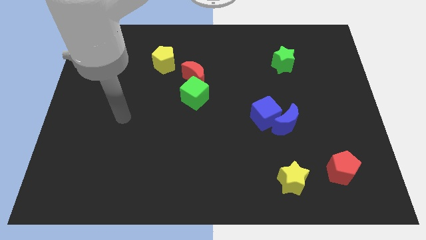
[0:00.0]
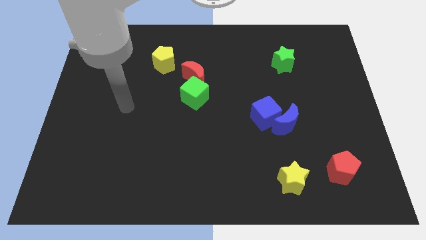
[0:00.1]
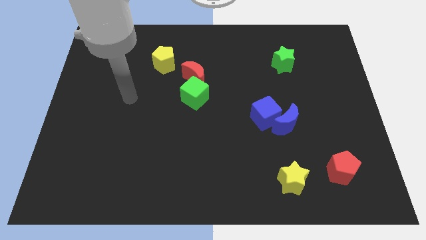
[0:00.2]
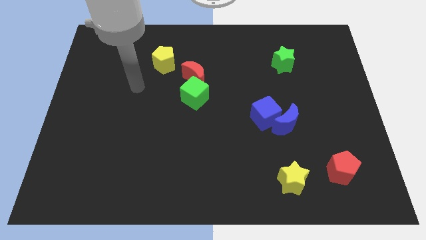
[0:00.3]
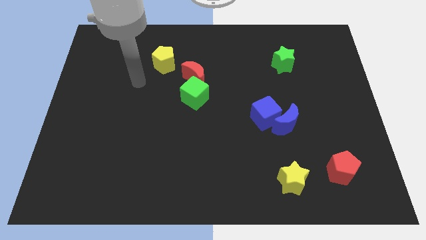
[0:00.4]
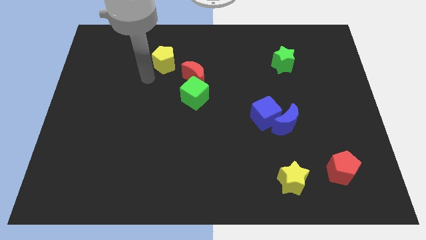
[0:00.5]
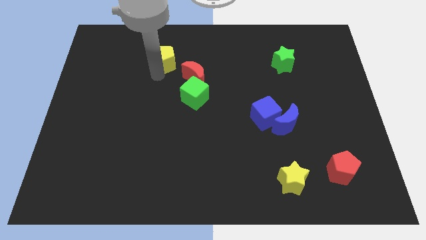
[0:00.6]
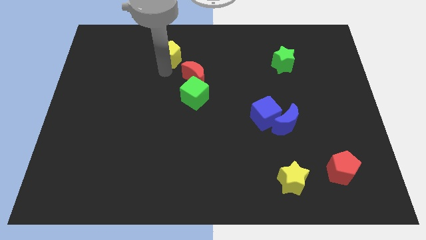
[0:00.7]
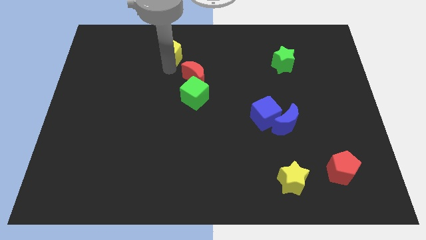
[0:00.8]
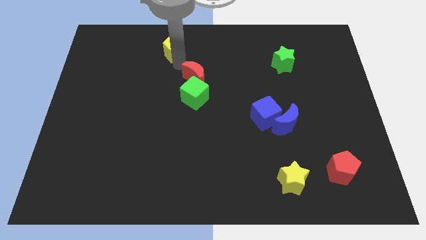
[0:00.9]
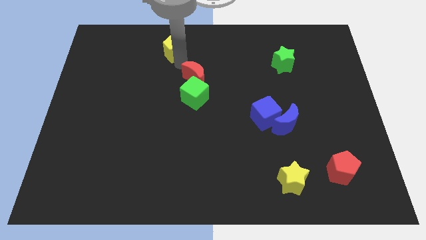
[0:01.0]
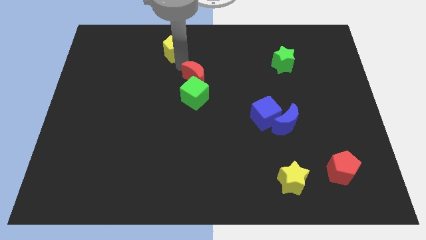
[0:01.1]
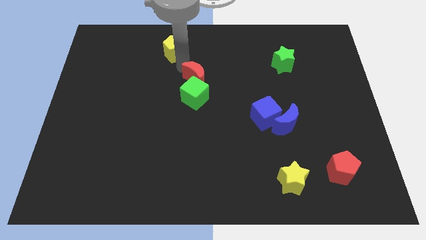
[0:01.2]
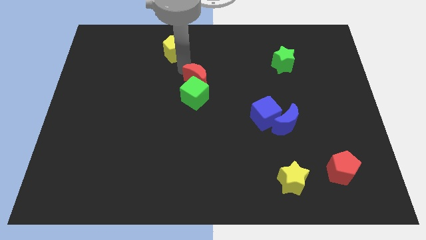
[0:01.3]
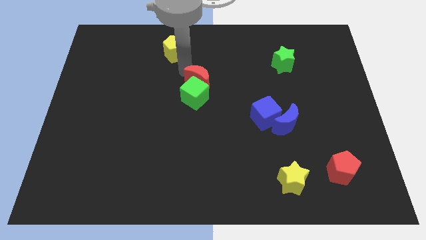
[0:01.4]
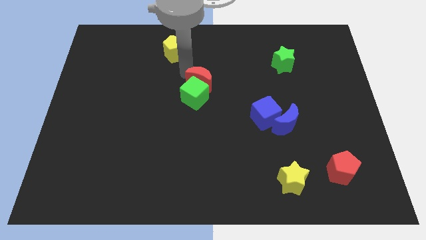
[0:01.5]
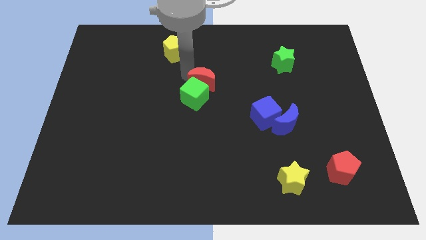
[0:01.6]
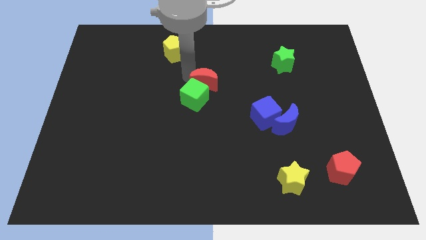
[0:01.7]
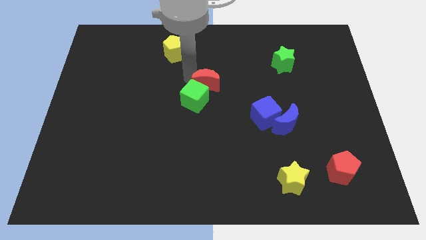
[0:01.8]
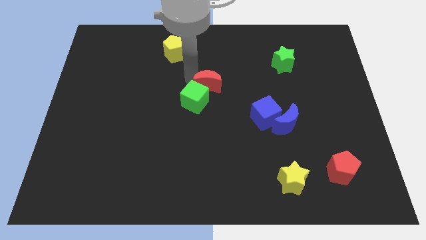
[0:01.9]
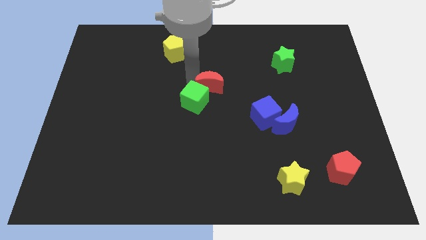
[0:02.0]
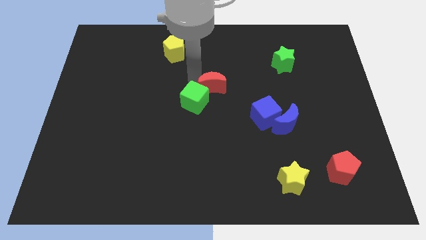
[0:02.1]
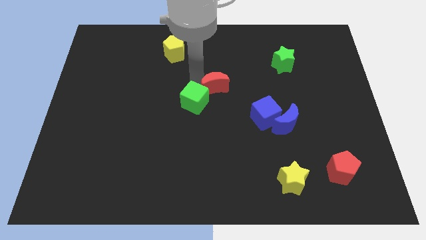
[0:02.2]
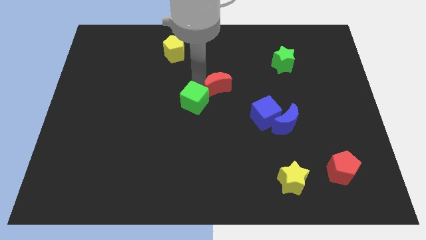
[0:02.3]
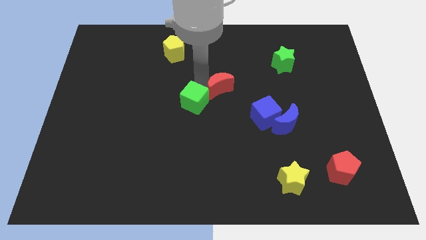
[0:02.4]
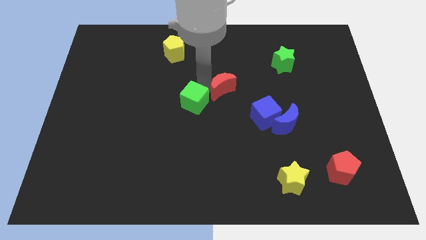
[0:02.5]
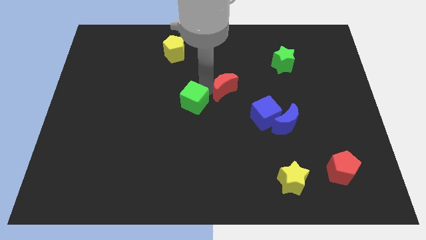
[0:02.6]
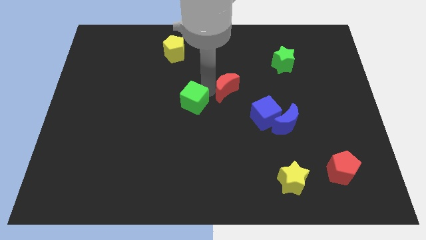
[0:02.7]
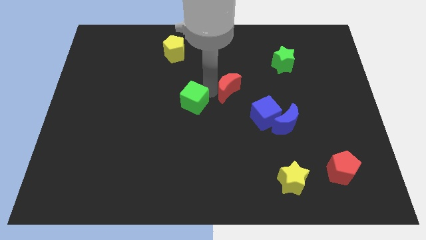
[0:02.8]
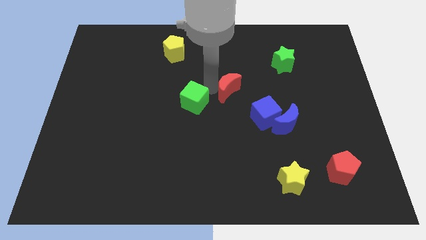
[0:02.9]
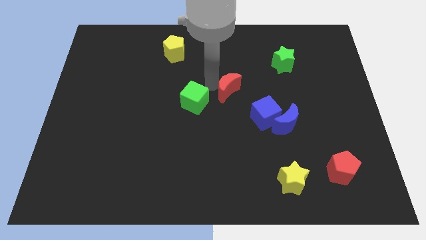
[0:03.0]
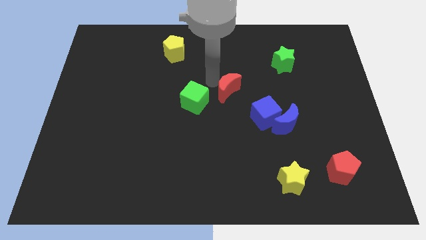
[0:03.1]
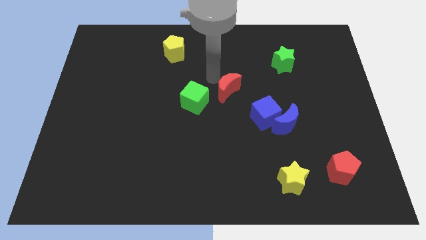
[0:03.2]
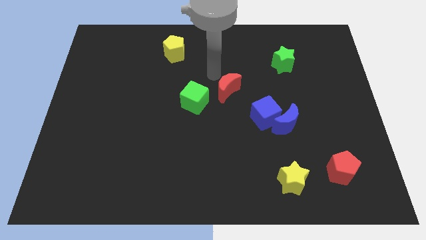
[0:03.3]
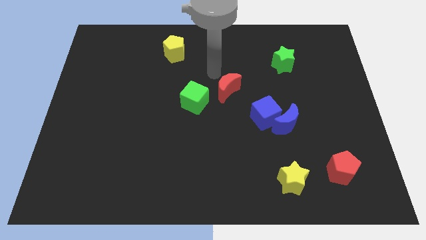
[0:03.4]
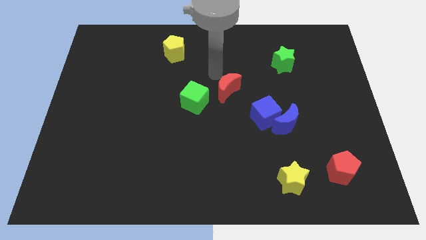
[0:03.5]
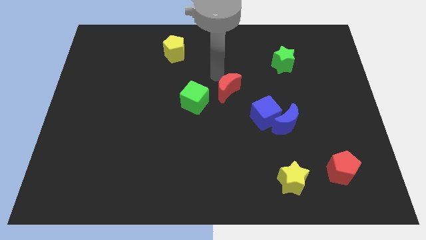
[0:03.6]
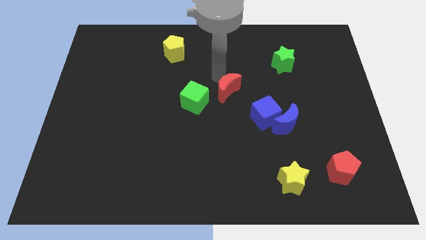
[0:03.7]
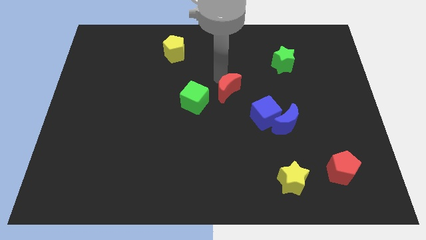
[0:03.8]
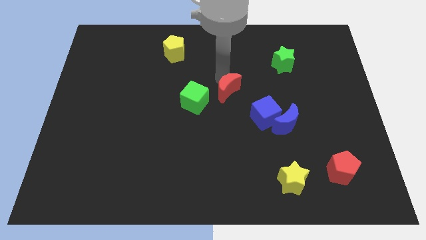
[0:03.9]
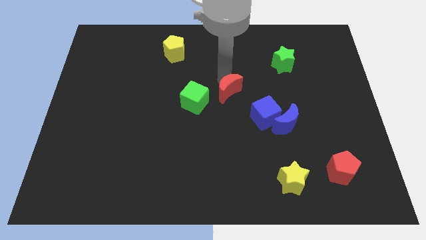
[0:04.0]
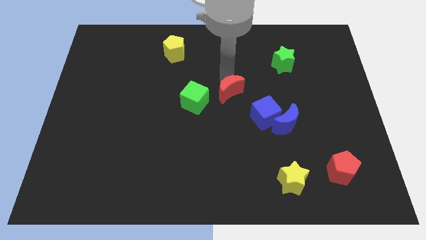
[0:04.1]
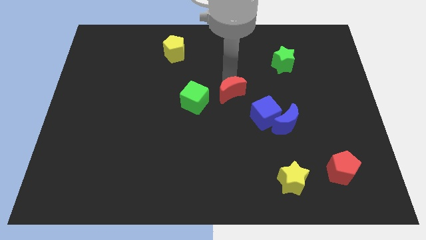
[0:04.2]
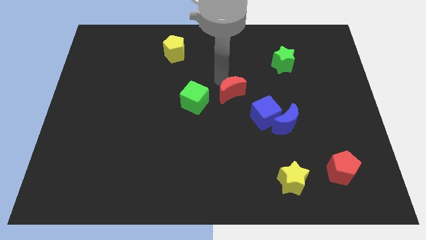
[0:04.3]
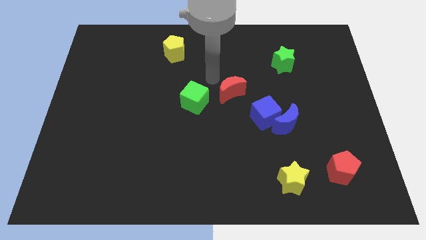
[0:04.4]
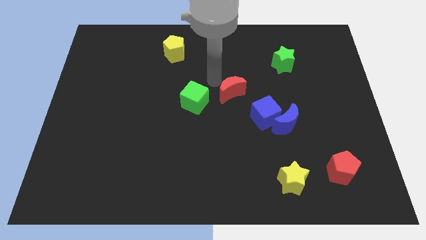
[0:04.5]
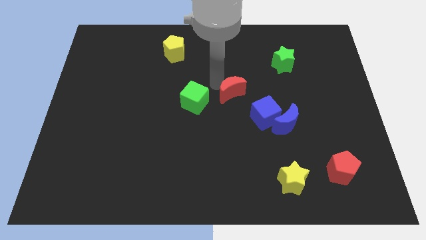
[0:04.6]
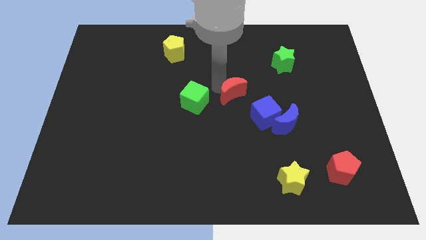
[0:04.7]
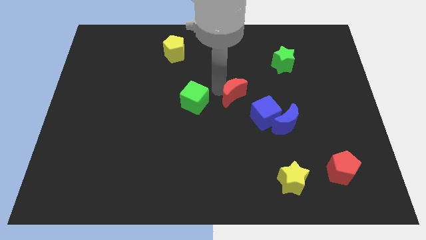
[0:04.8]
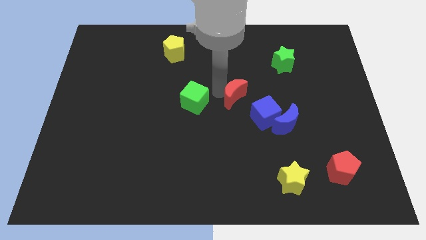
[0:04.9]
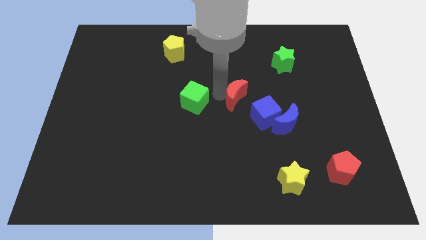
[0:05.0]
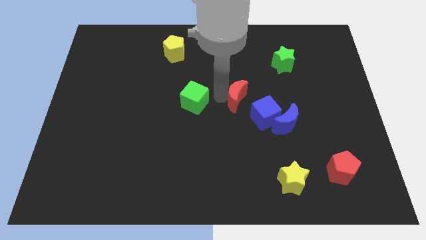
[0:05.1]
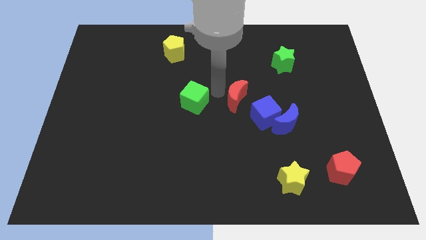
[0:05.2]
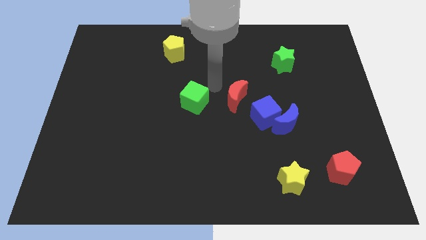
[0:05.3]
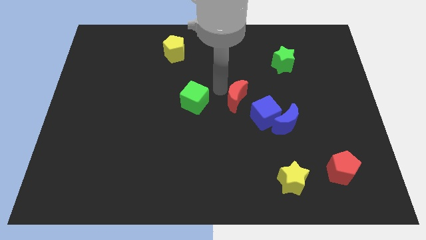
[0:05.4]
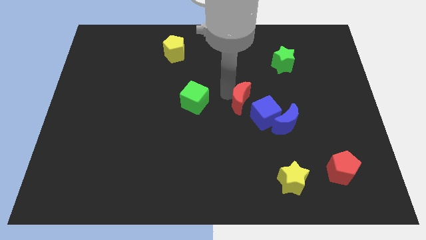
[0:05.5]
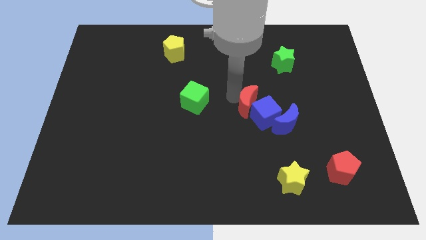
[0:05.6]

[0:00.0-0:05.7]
slide the red moon towards the blue cube

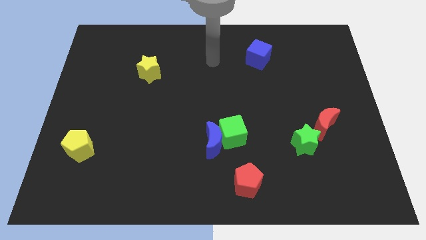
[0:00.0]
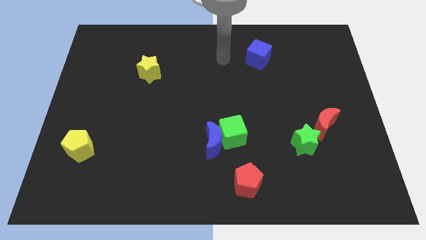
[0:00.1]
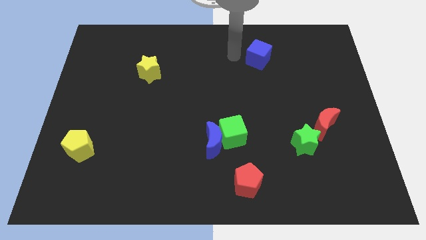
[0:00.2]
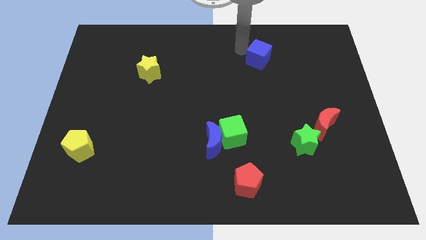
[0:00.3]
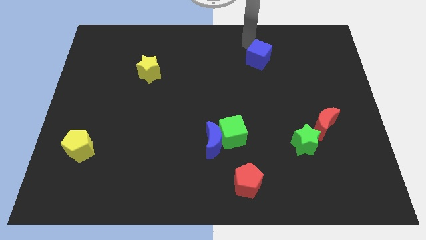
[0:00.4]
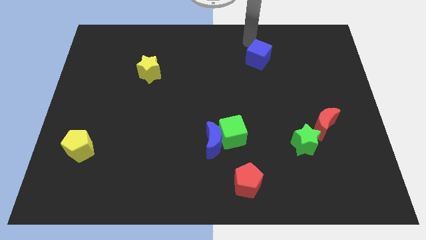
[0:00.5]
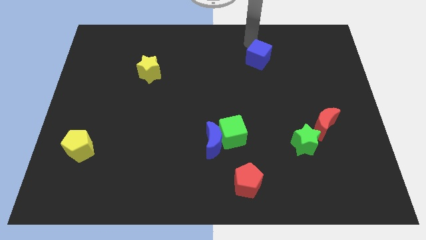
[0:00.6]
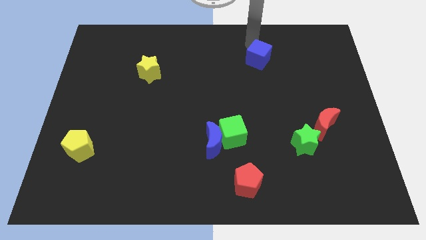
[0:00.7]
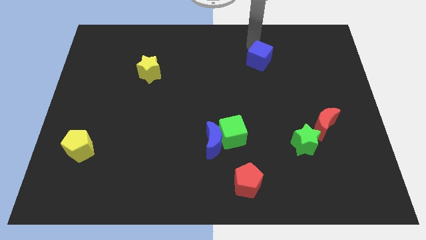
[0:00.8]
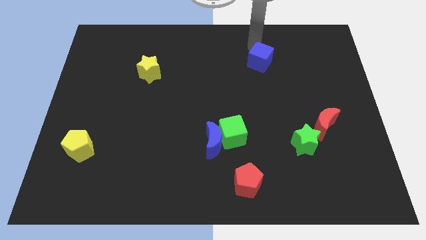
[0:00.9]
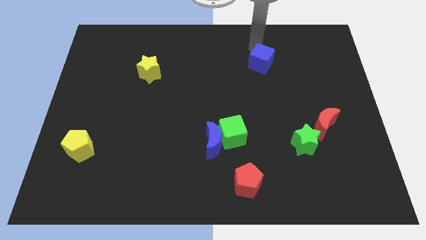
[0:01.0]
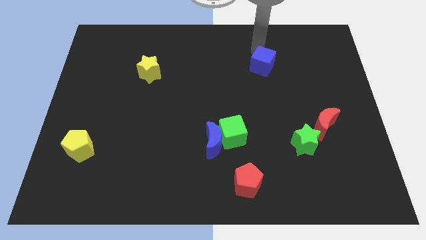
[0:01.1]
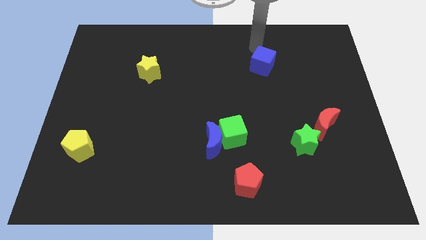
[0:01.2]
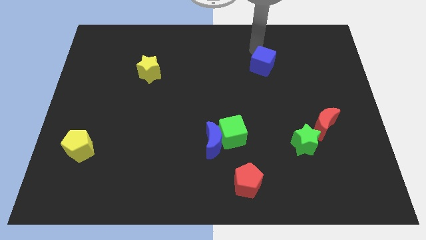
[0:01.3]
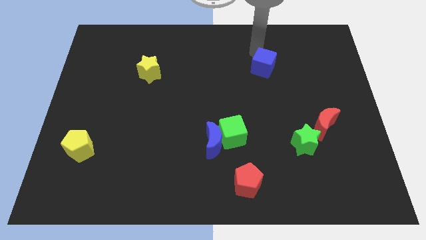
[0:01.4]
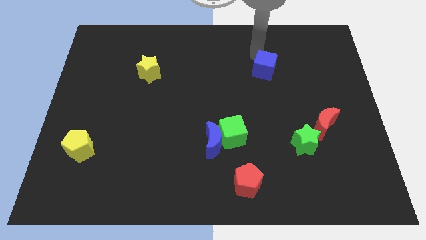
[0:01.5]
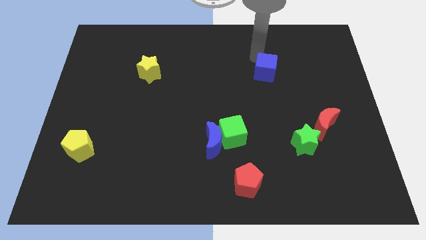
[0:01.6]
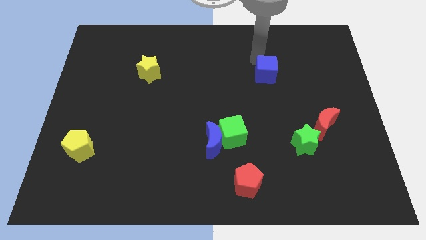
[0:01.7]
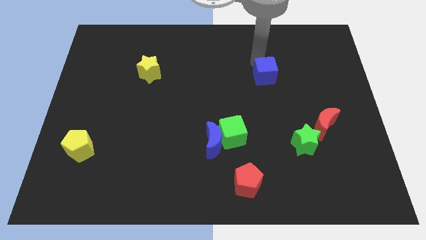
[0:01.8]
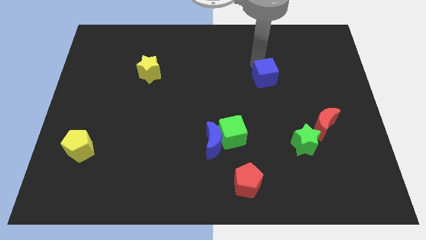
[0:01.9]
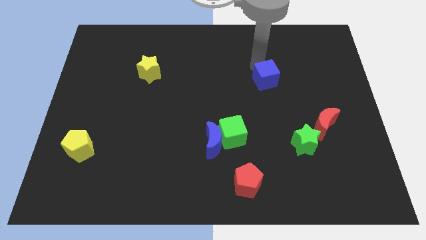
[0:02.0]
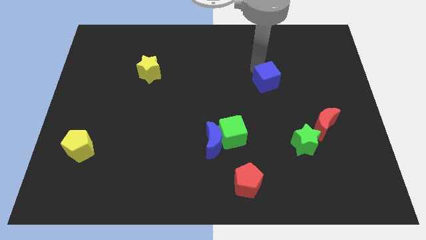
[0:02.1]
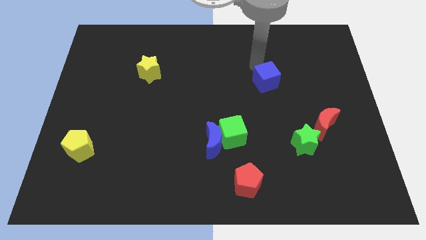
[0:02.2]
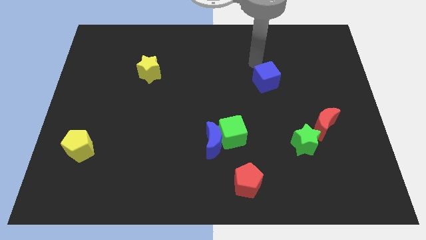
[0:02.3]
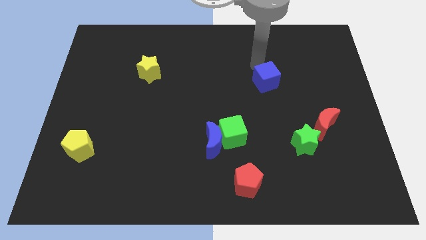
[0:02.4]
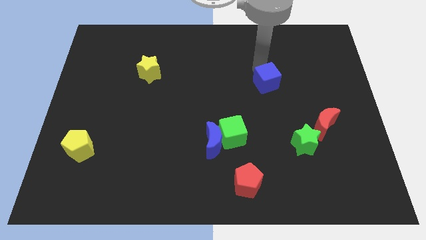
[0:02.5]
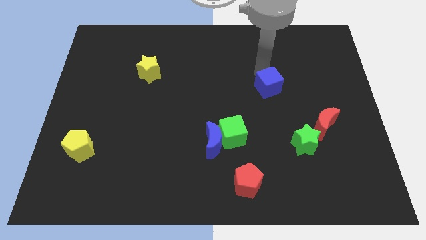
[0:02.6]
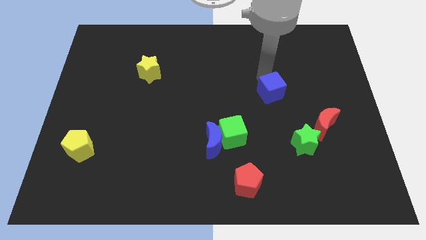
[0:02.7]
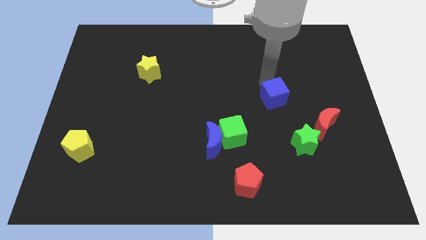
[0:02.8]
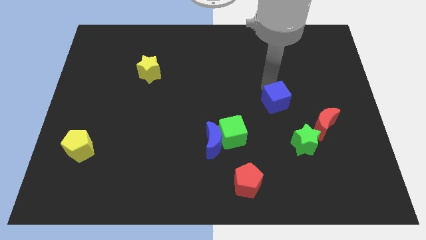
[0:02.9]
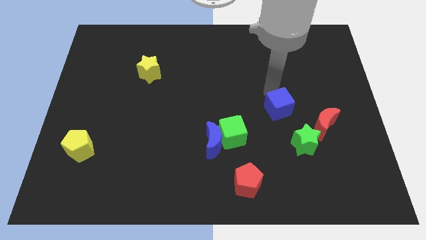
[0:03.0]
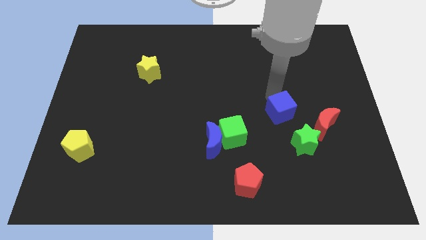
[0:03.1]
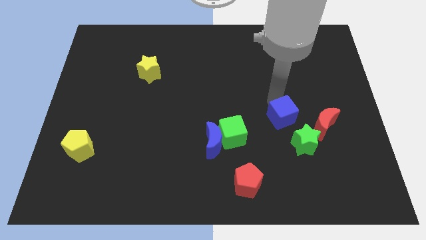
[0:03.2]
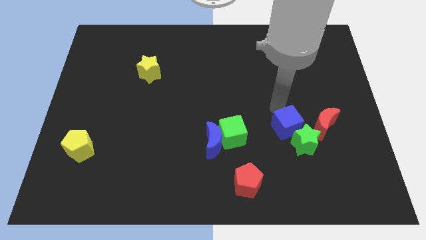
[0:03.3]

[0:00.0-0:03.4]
push the blue cube to the green star
